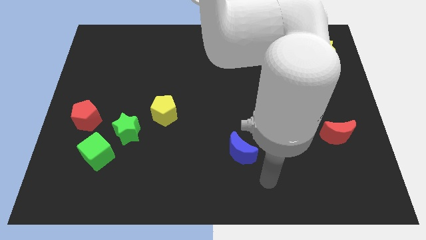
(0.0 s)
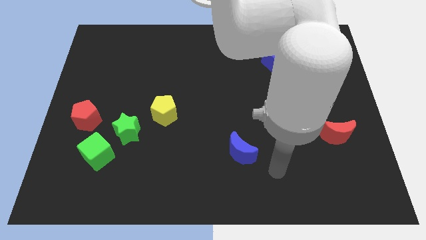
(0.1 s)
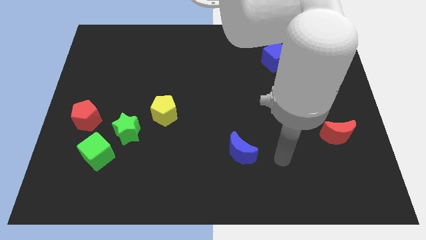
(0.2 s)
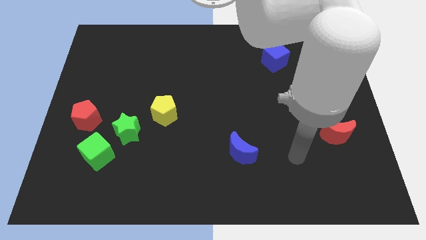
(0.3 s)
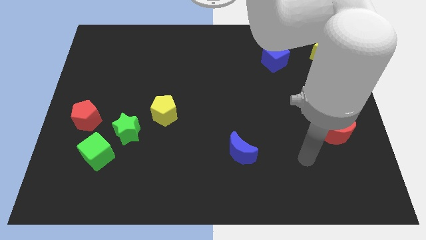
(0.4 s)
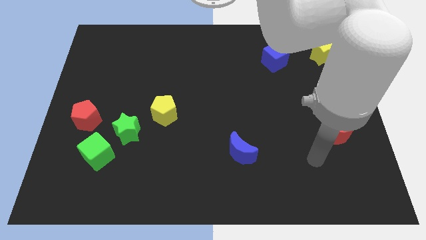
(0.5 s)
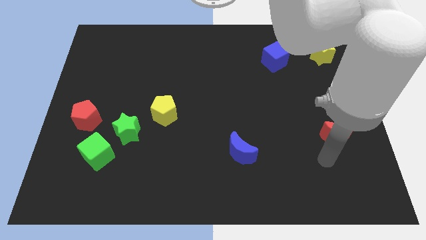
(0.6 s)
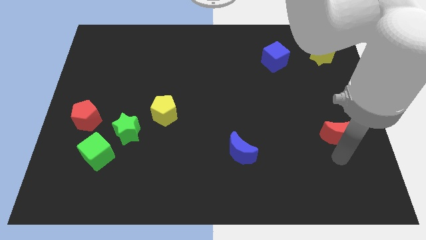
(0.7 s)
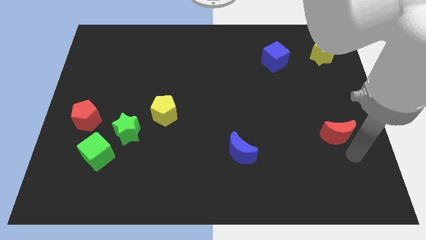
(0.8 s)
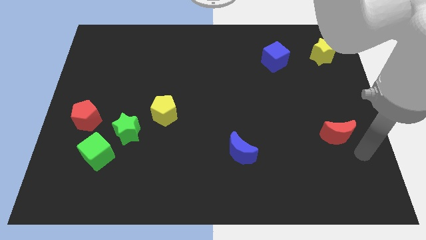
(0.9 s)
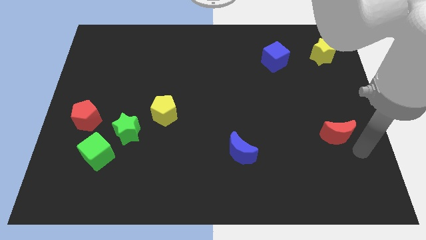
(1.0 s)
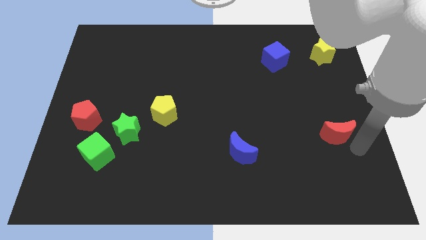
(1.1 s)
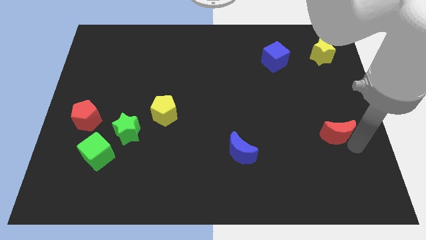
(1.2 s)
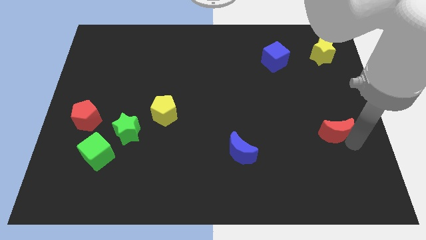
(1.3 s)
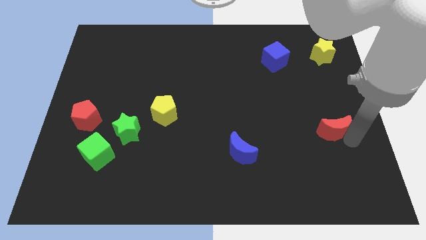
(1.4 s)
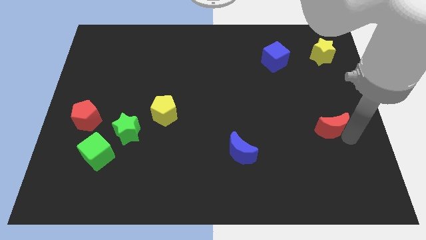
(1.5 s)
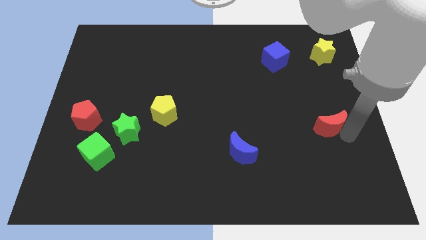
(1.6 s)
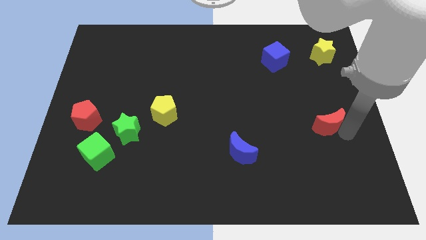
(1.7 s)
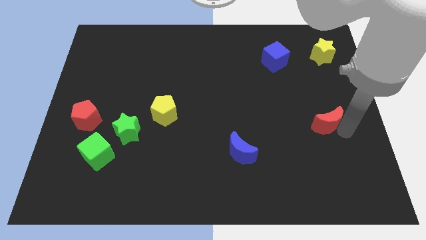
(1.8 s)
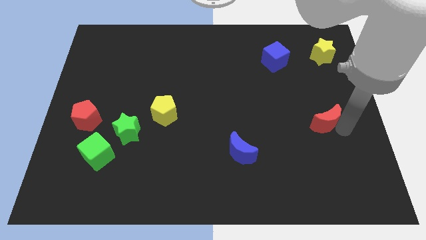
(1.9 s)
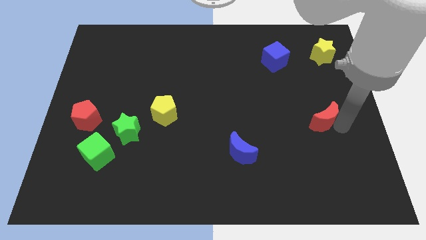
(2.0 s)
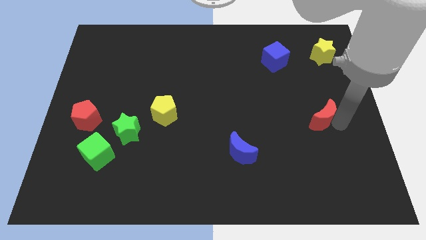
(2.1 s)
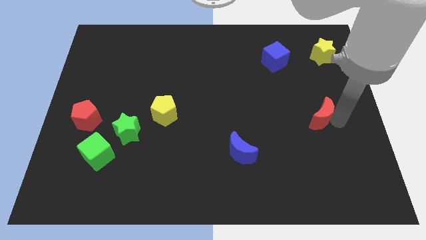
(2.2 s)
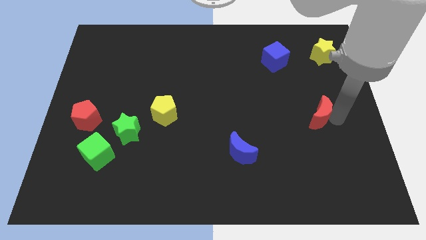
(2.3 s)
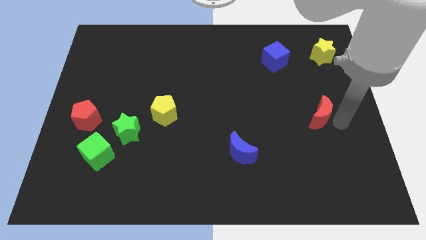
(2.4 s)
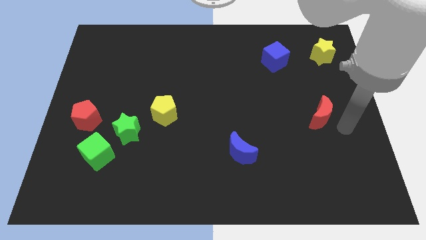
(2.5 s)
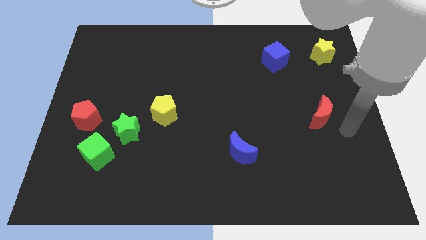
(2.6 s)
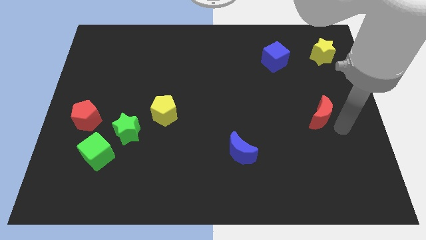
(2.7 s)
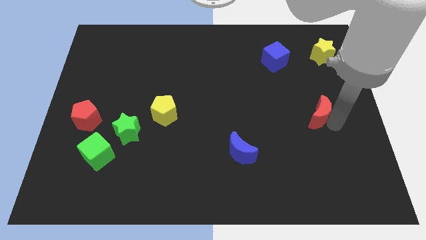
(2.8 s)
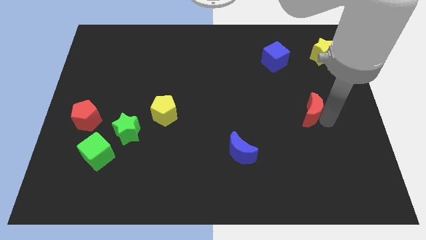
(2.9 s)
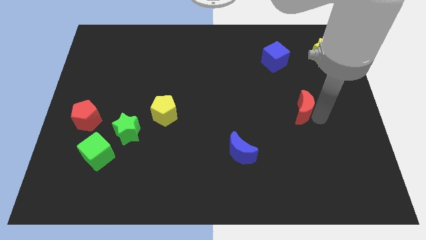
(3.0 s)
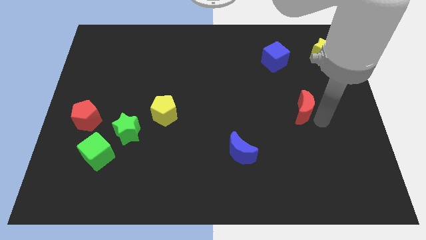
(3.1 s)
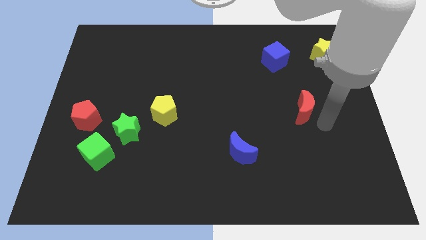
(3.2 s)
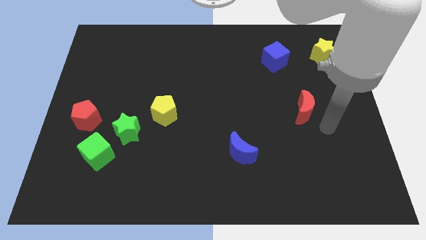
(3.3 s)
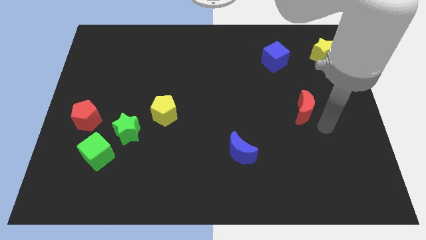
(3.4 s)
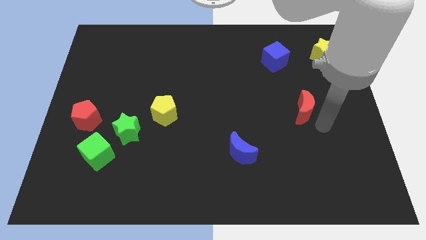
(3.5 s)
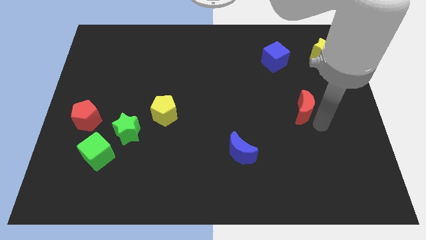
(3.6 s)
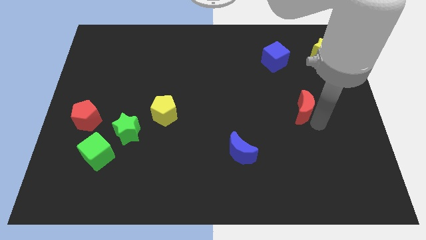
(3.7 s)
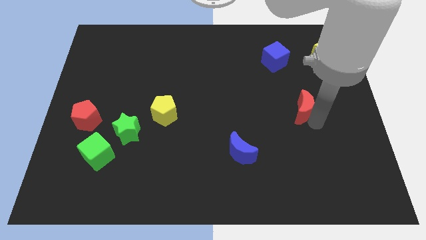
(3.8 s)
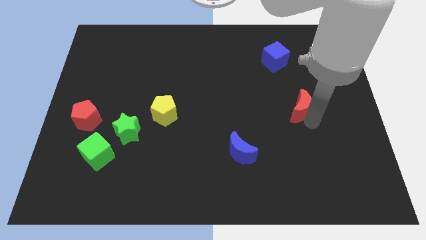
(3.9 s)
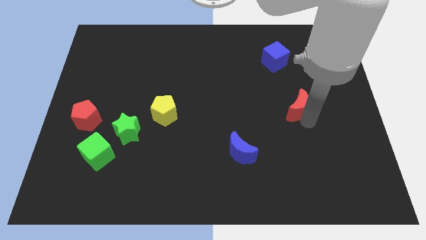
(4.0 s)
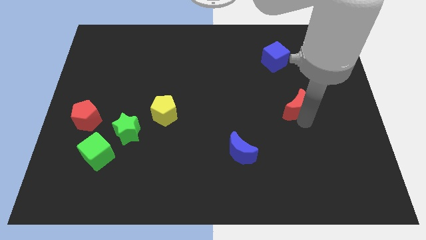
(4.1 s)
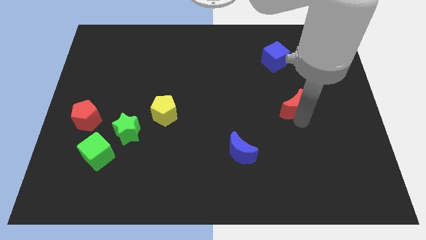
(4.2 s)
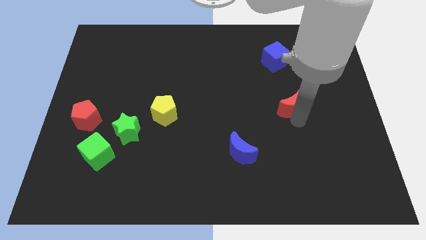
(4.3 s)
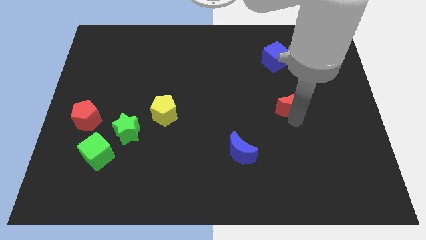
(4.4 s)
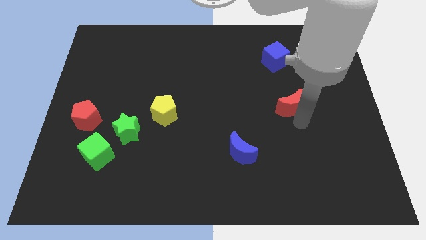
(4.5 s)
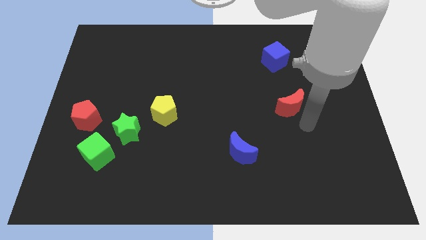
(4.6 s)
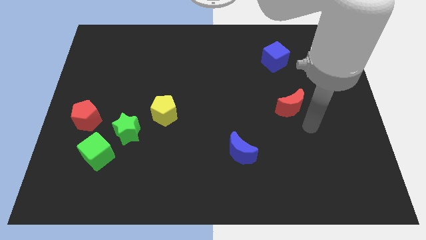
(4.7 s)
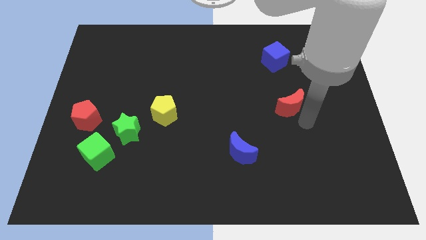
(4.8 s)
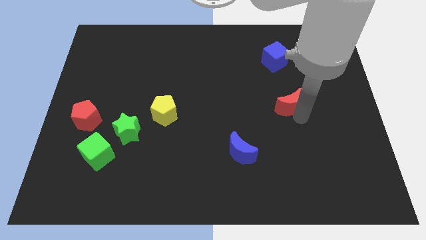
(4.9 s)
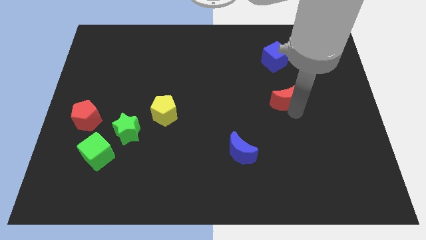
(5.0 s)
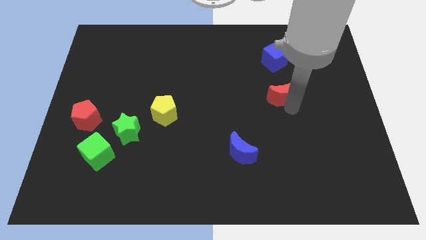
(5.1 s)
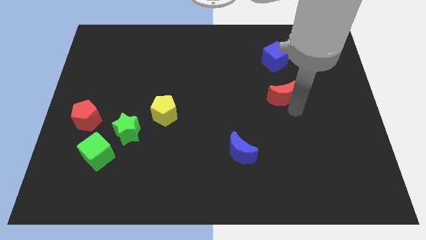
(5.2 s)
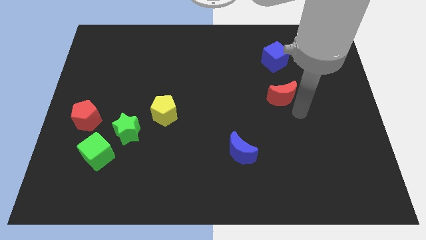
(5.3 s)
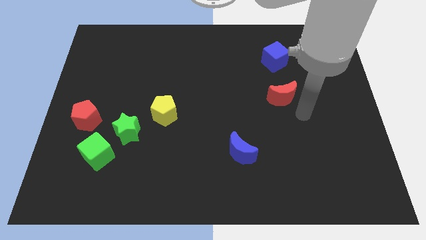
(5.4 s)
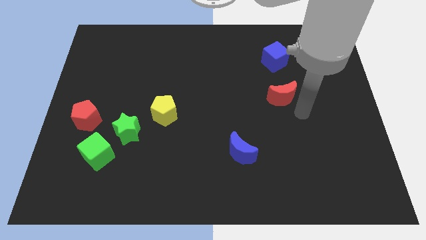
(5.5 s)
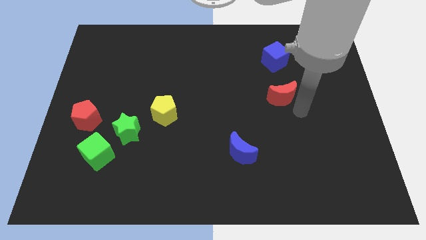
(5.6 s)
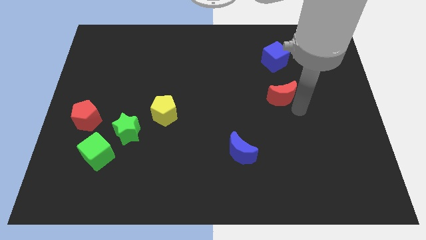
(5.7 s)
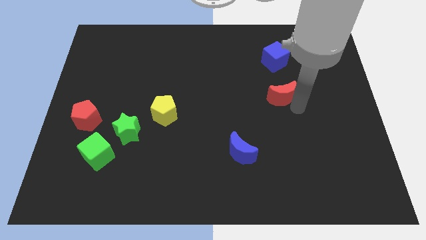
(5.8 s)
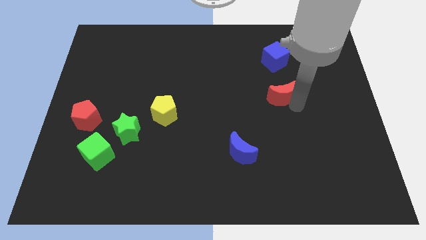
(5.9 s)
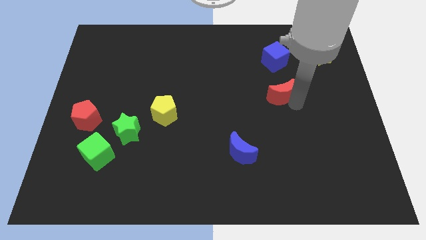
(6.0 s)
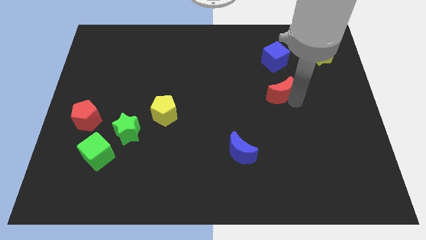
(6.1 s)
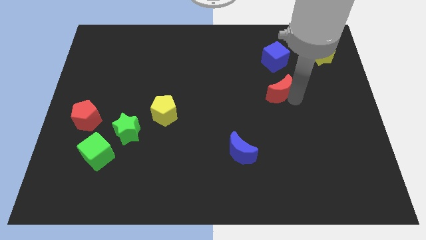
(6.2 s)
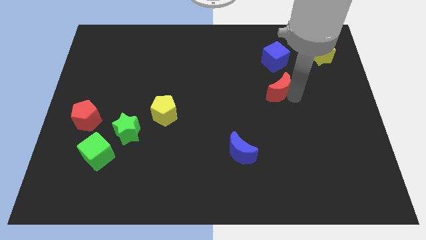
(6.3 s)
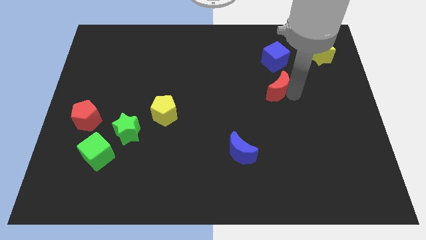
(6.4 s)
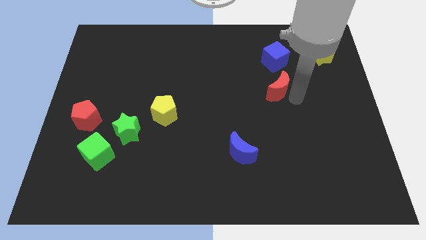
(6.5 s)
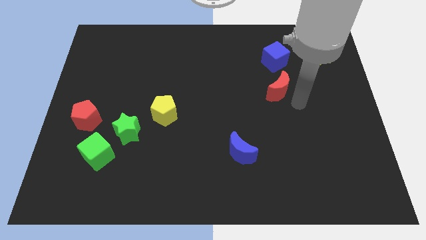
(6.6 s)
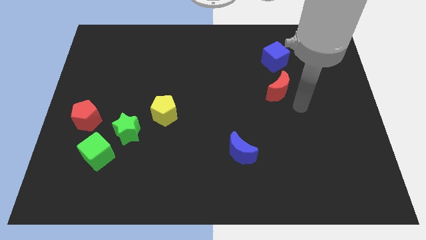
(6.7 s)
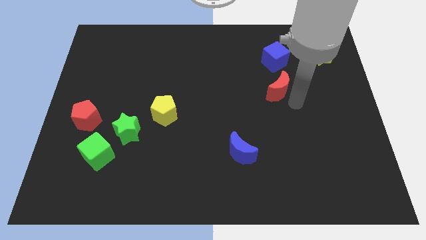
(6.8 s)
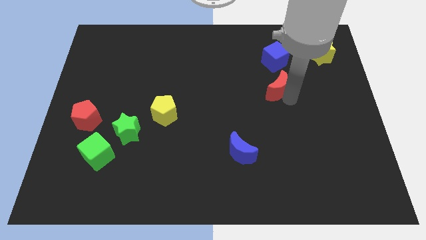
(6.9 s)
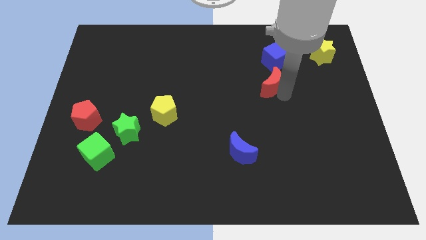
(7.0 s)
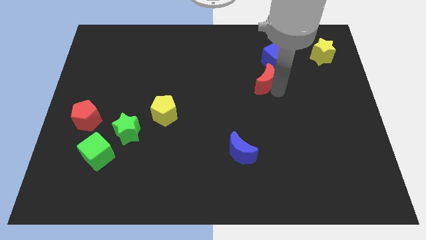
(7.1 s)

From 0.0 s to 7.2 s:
put the red moon diagonally down and to the left of the blue cube
